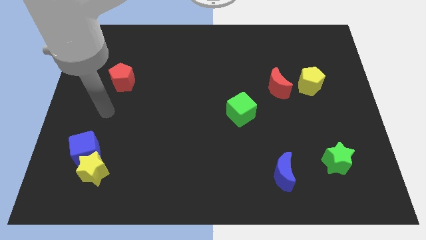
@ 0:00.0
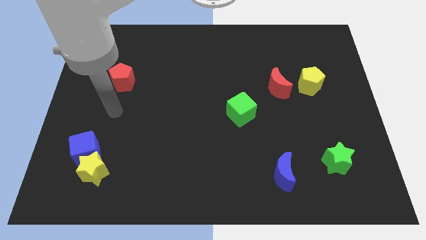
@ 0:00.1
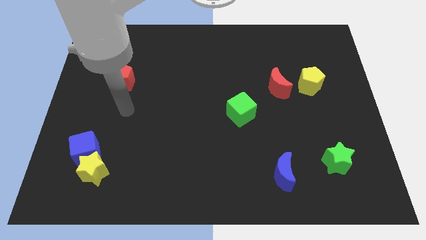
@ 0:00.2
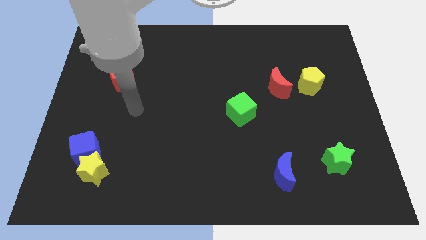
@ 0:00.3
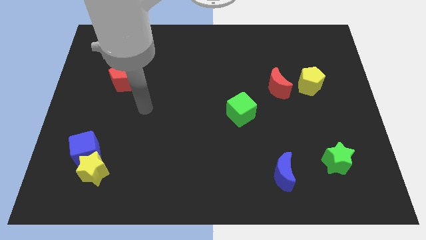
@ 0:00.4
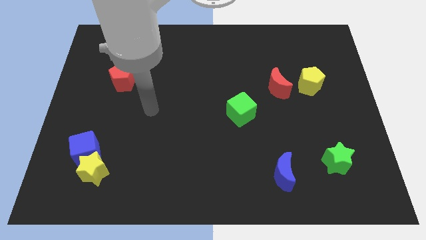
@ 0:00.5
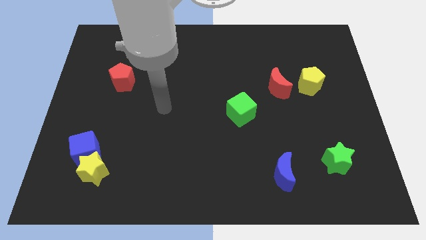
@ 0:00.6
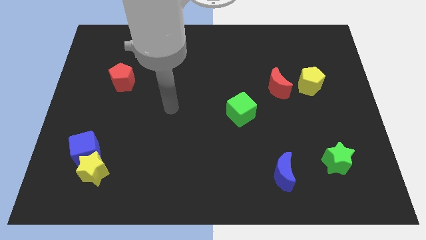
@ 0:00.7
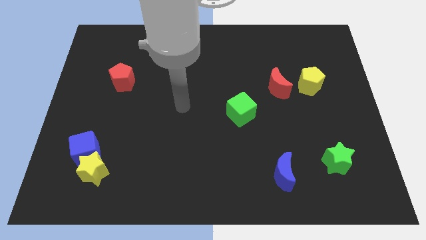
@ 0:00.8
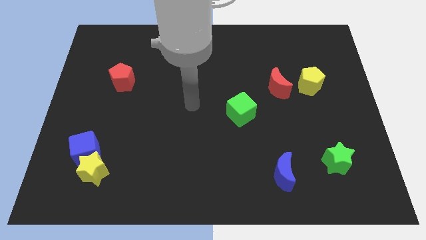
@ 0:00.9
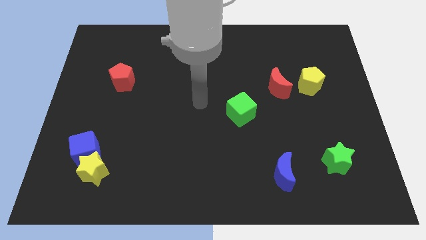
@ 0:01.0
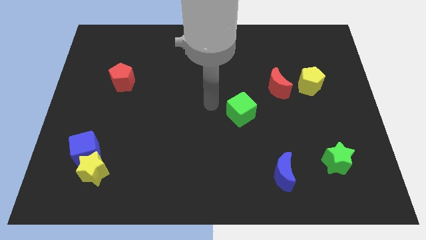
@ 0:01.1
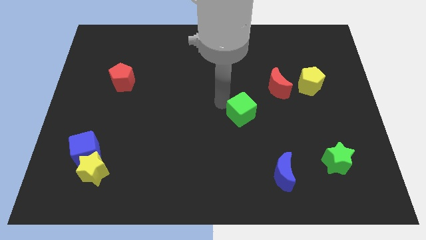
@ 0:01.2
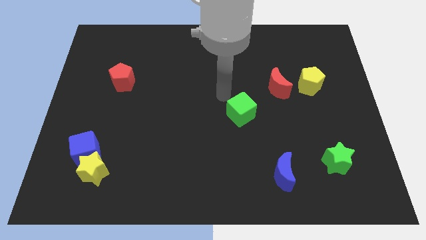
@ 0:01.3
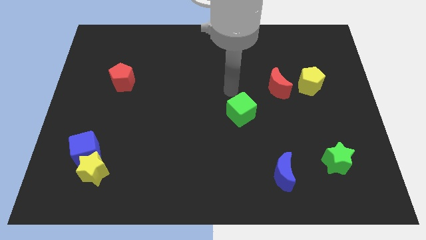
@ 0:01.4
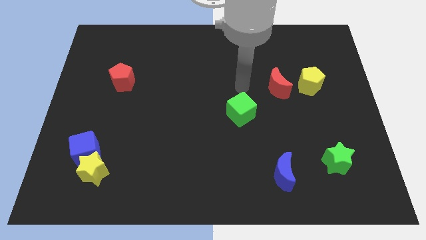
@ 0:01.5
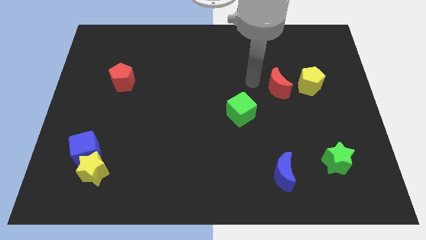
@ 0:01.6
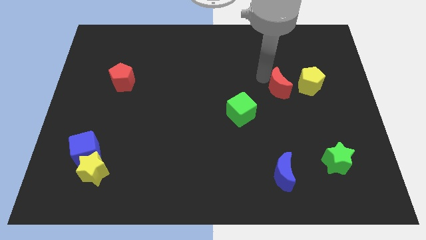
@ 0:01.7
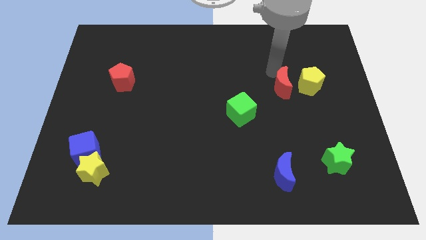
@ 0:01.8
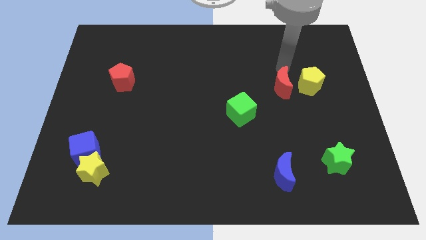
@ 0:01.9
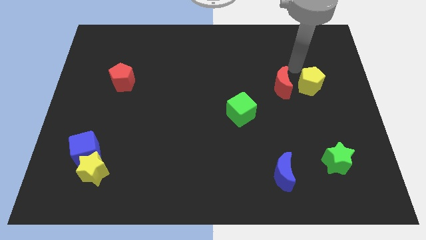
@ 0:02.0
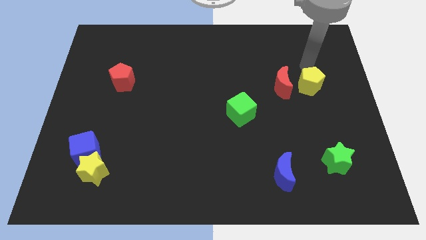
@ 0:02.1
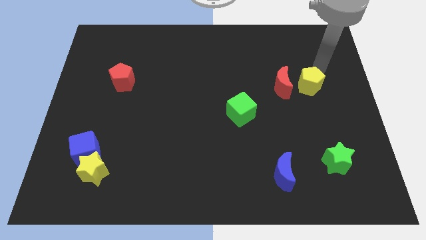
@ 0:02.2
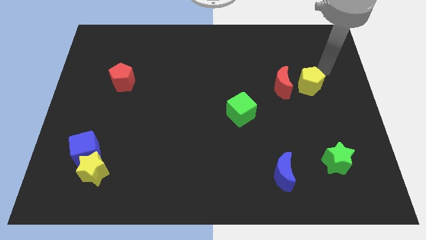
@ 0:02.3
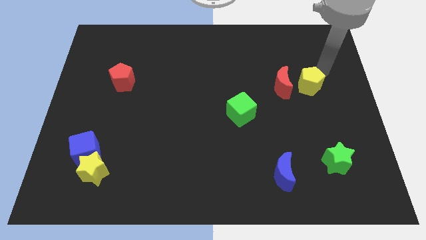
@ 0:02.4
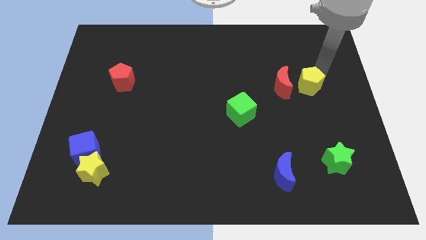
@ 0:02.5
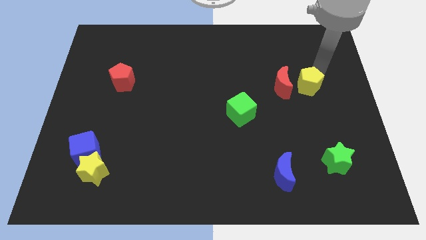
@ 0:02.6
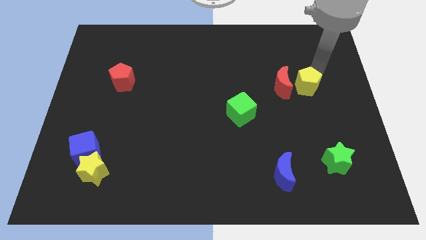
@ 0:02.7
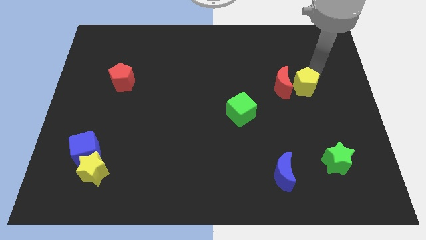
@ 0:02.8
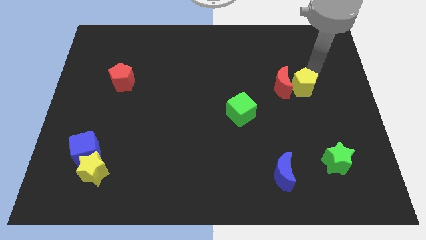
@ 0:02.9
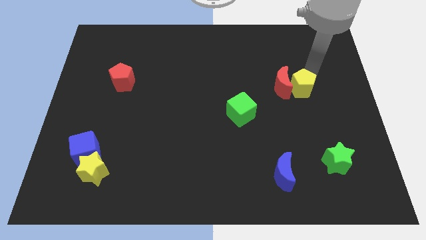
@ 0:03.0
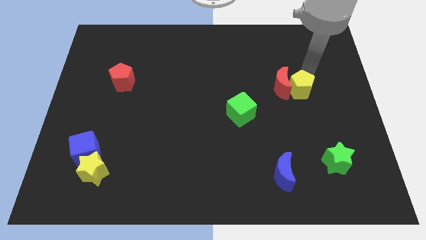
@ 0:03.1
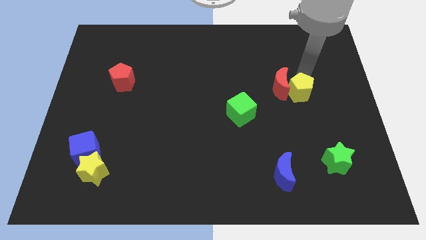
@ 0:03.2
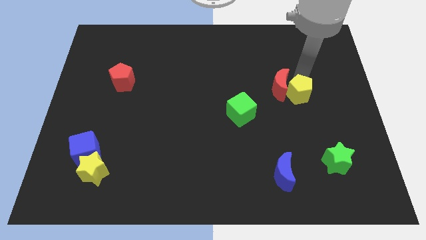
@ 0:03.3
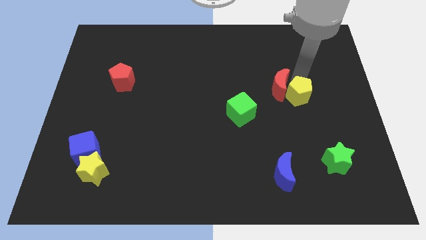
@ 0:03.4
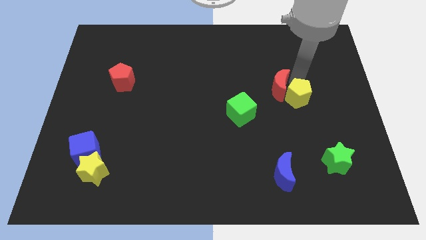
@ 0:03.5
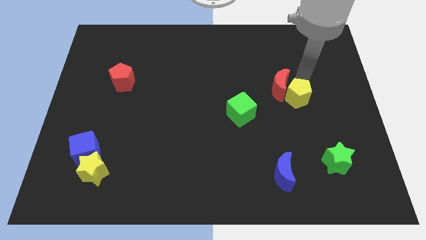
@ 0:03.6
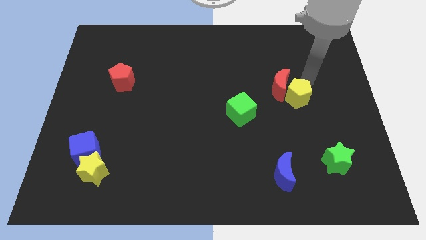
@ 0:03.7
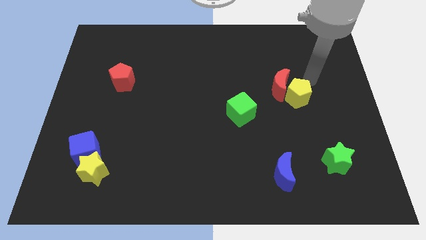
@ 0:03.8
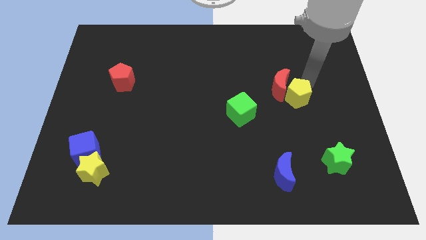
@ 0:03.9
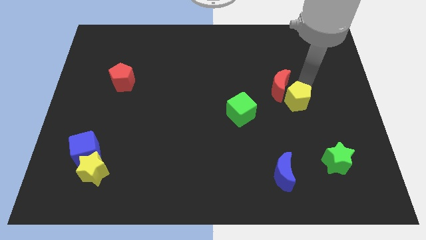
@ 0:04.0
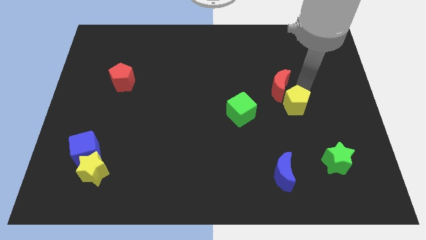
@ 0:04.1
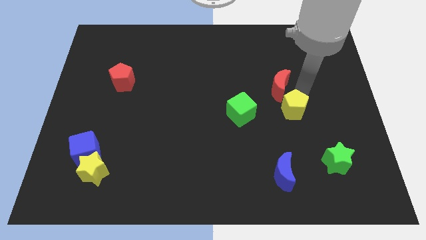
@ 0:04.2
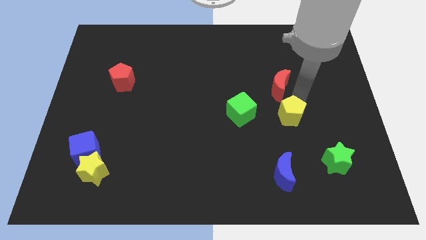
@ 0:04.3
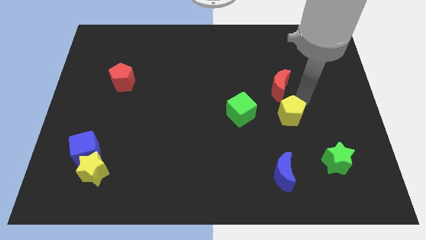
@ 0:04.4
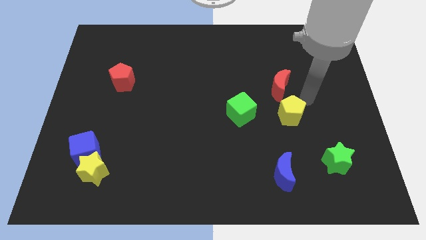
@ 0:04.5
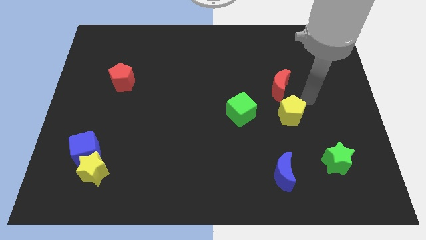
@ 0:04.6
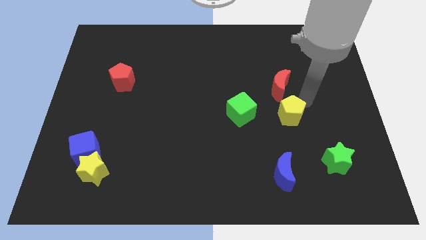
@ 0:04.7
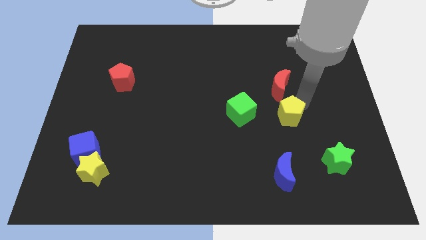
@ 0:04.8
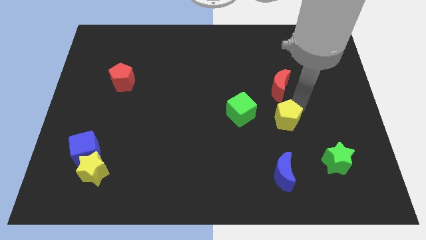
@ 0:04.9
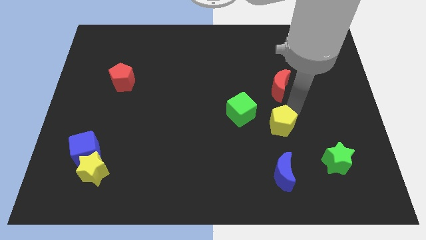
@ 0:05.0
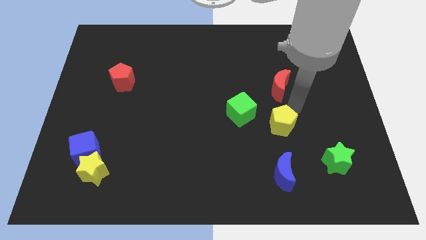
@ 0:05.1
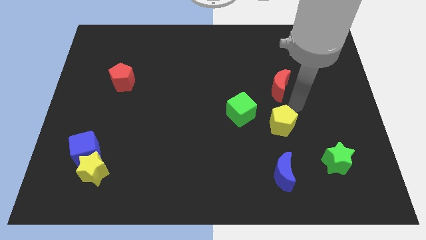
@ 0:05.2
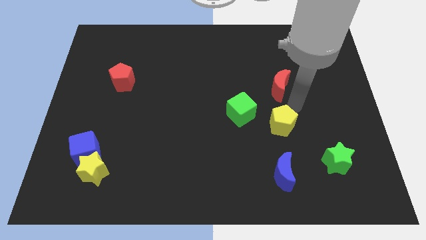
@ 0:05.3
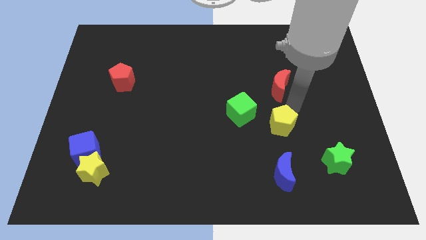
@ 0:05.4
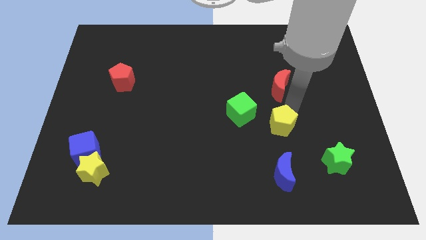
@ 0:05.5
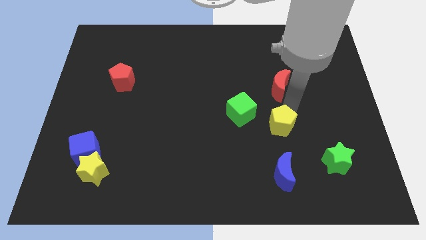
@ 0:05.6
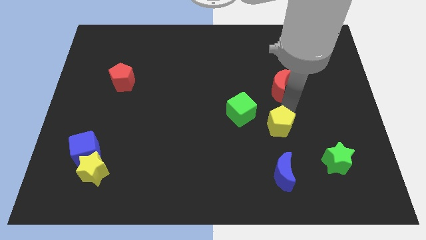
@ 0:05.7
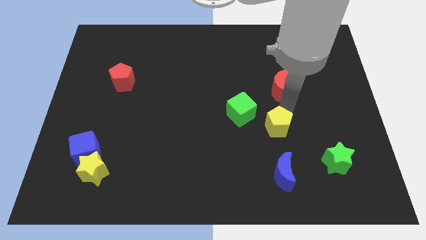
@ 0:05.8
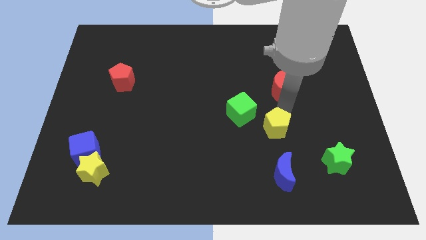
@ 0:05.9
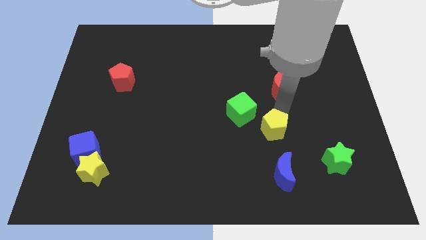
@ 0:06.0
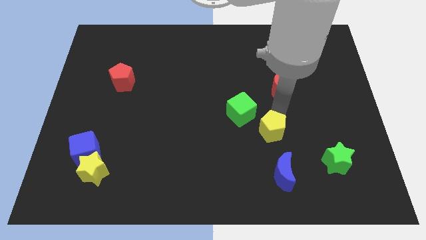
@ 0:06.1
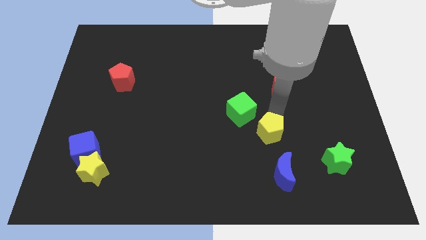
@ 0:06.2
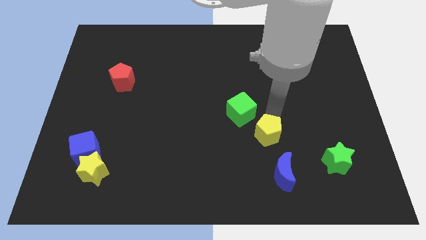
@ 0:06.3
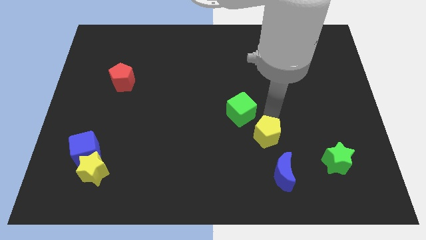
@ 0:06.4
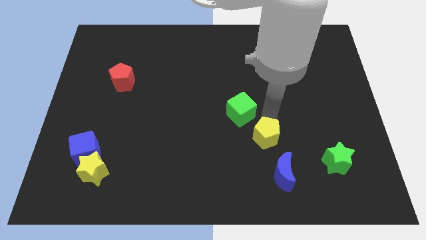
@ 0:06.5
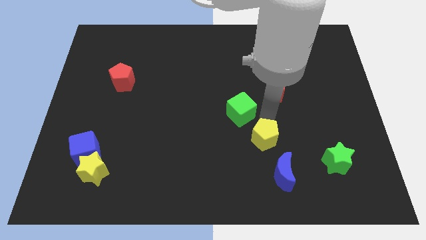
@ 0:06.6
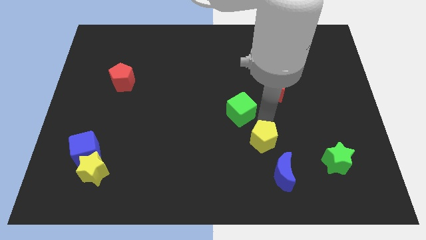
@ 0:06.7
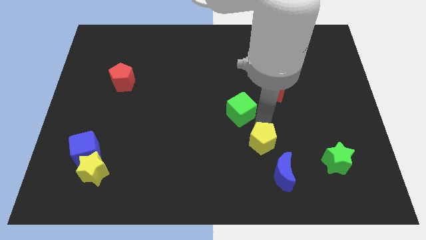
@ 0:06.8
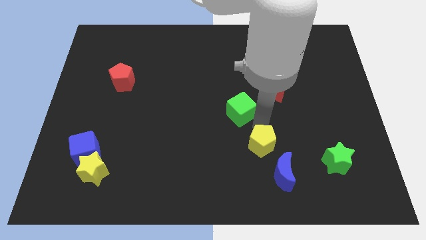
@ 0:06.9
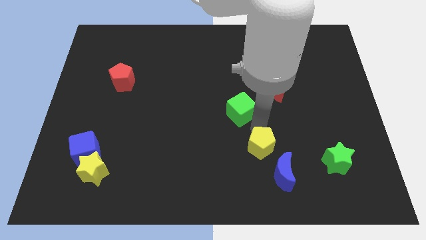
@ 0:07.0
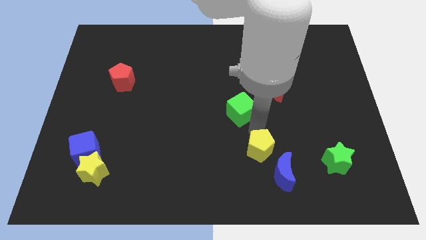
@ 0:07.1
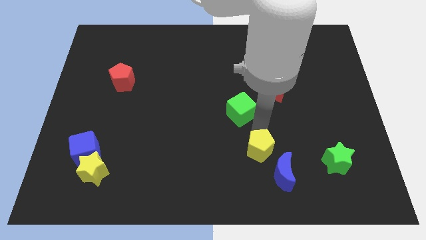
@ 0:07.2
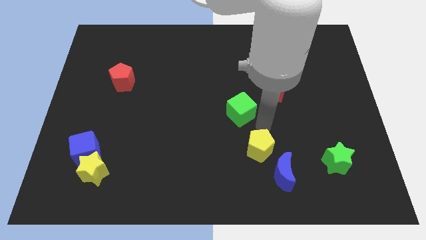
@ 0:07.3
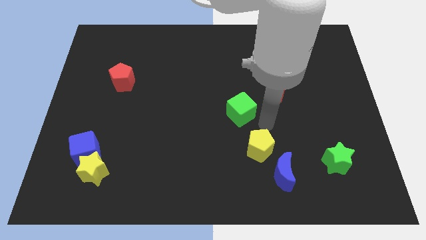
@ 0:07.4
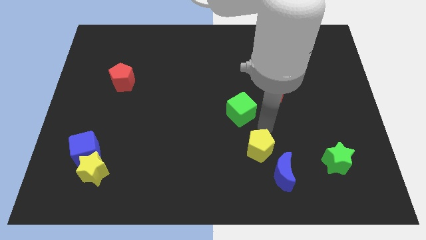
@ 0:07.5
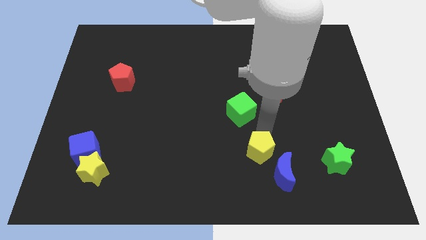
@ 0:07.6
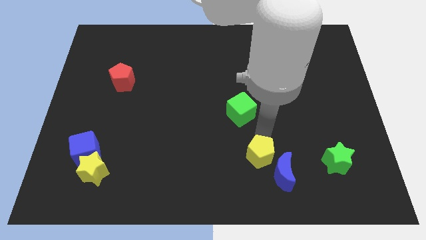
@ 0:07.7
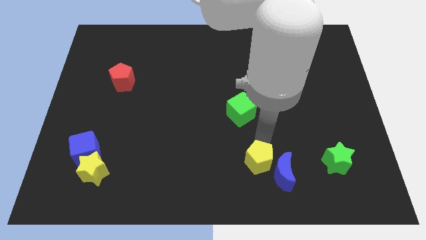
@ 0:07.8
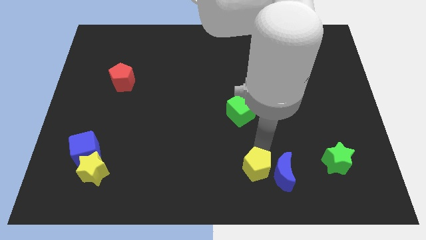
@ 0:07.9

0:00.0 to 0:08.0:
push the yellow pentagon to the bottom
